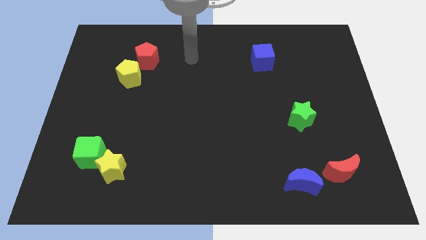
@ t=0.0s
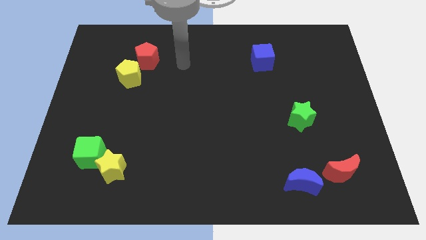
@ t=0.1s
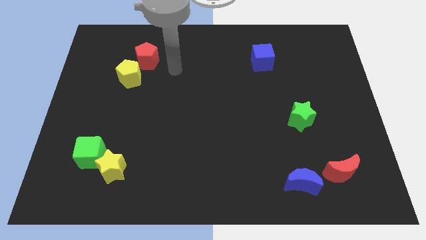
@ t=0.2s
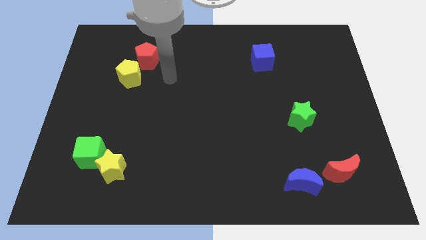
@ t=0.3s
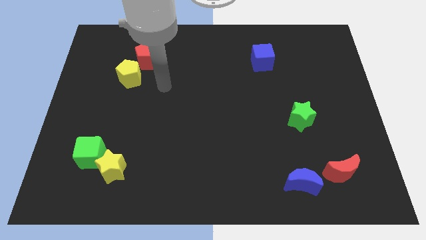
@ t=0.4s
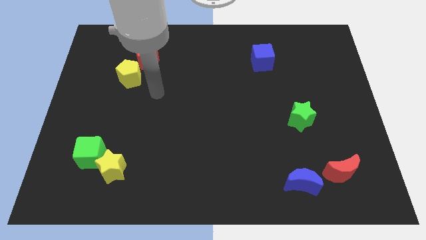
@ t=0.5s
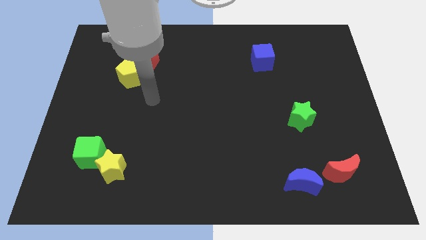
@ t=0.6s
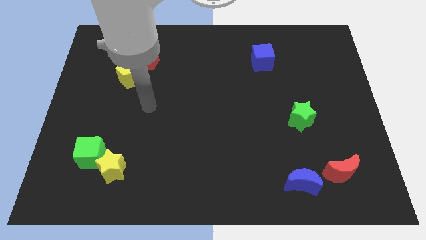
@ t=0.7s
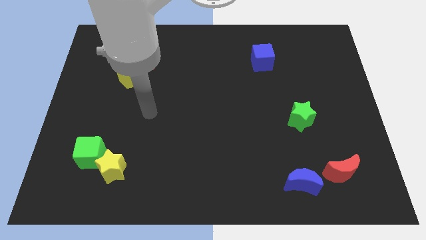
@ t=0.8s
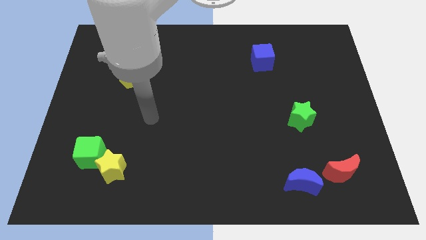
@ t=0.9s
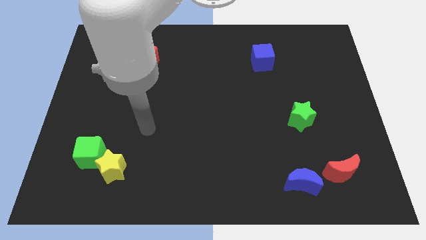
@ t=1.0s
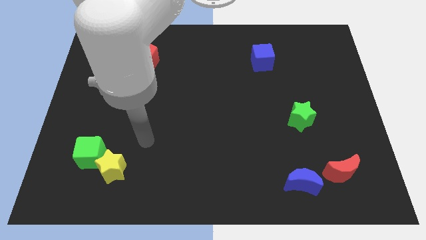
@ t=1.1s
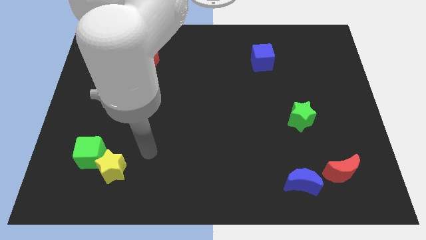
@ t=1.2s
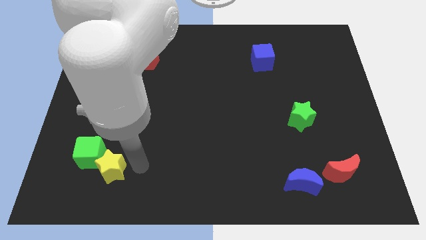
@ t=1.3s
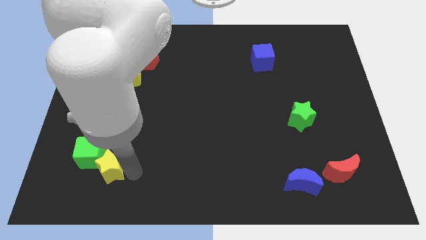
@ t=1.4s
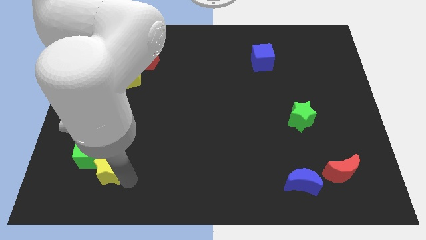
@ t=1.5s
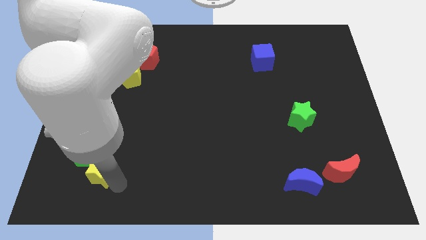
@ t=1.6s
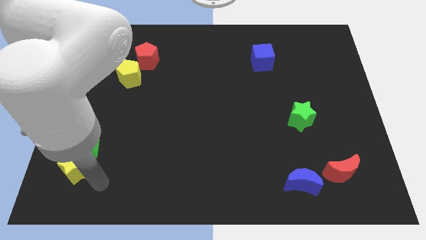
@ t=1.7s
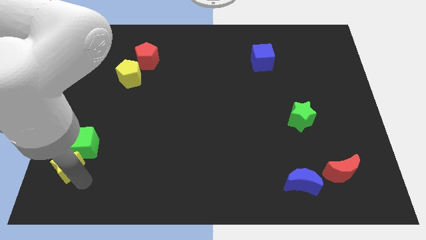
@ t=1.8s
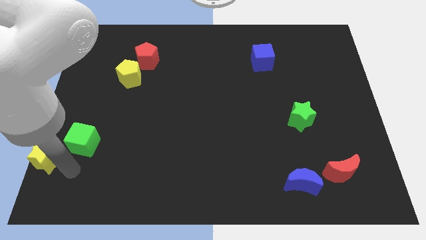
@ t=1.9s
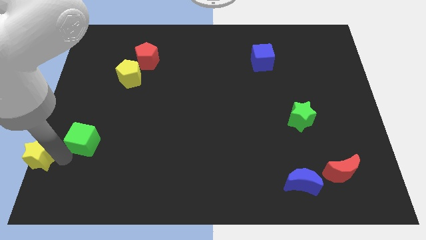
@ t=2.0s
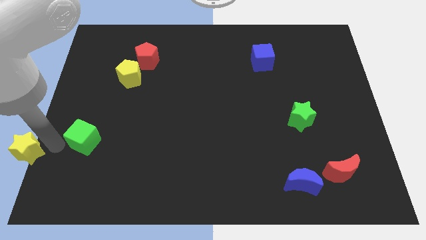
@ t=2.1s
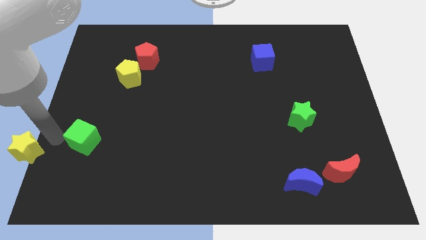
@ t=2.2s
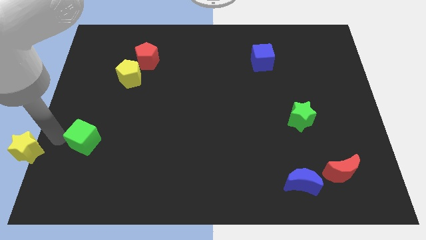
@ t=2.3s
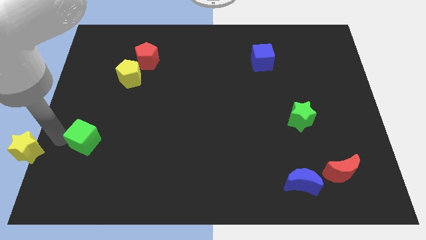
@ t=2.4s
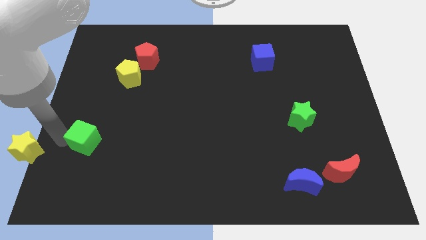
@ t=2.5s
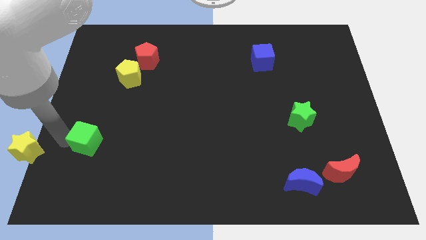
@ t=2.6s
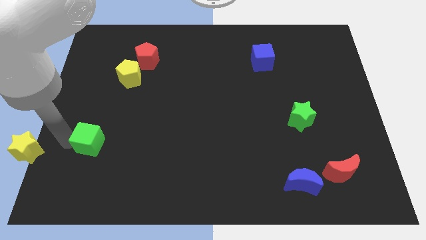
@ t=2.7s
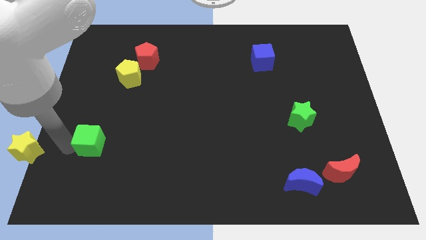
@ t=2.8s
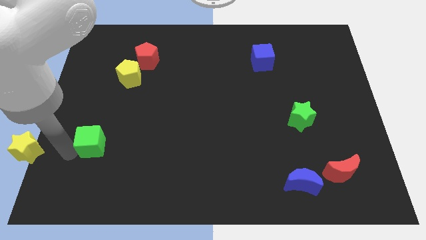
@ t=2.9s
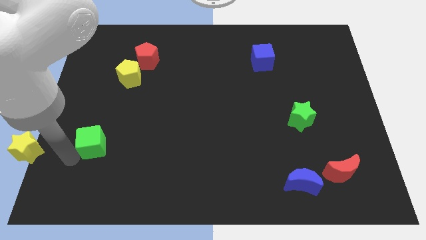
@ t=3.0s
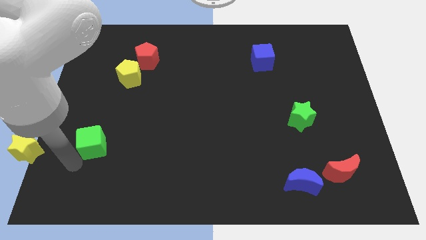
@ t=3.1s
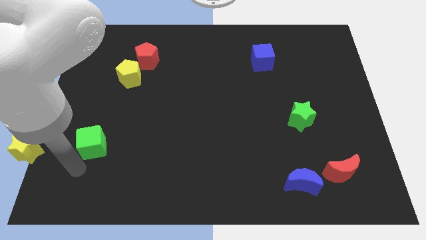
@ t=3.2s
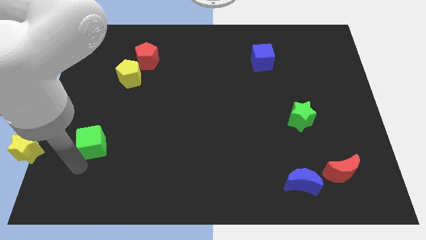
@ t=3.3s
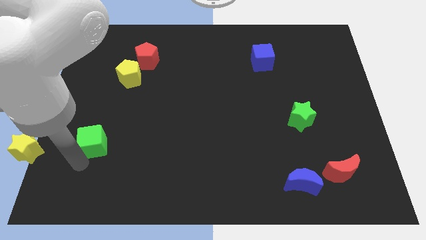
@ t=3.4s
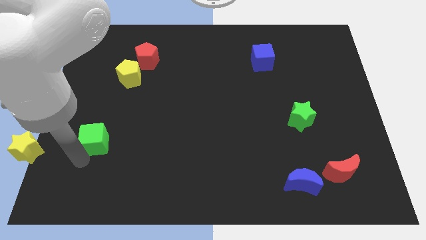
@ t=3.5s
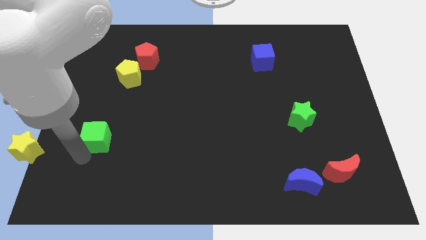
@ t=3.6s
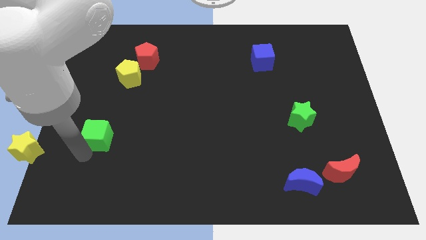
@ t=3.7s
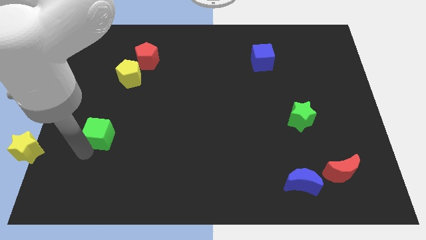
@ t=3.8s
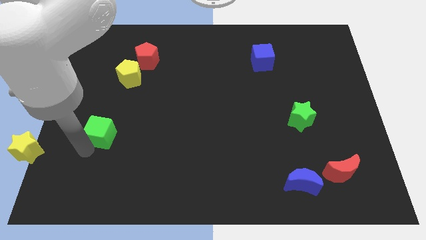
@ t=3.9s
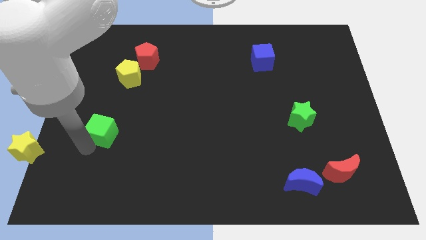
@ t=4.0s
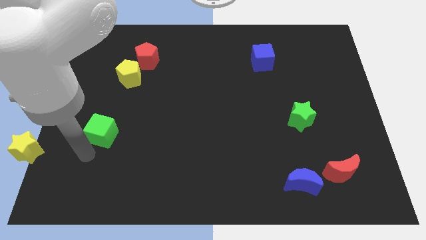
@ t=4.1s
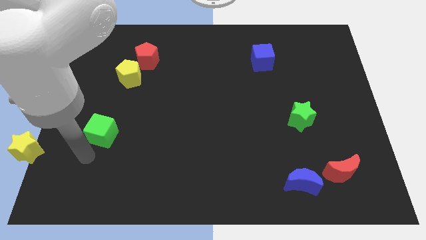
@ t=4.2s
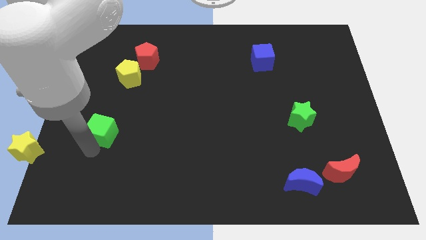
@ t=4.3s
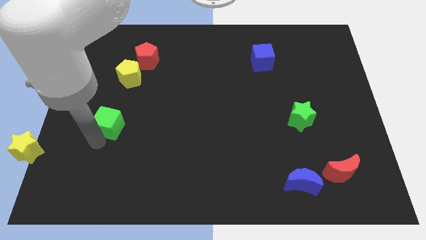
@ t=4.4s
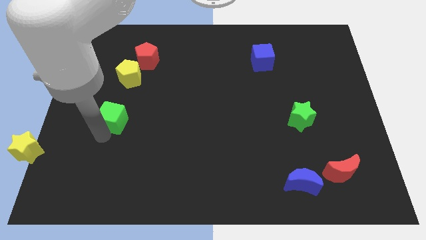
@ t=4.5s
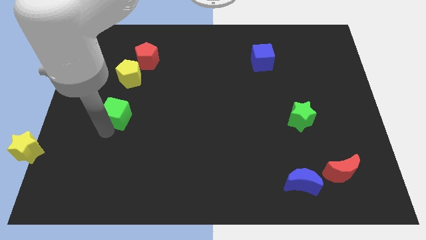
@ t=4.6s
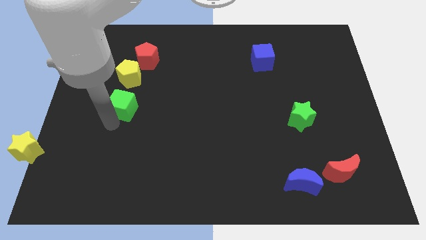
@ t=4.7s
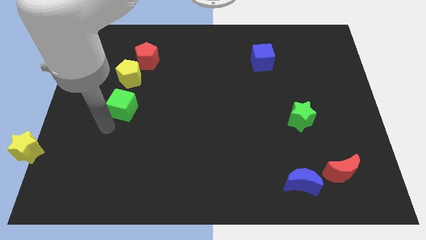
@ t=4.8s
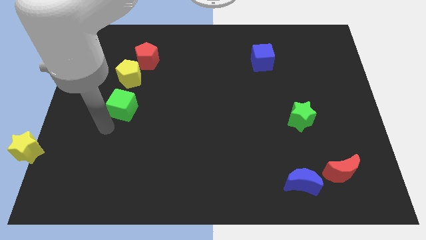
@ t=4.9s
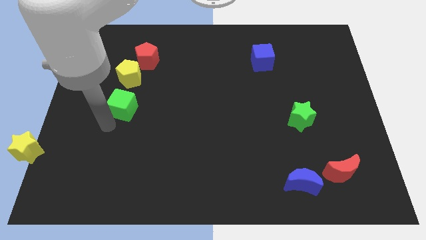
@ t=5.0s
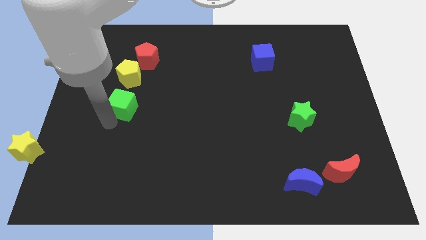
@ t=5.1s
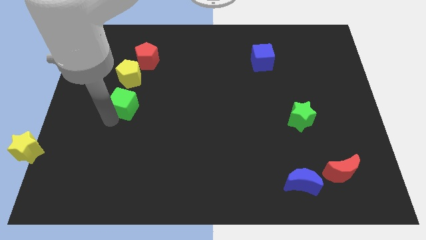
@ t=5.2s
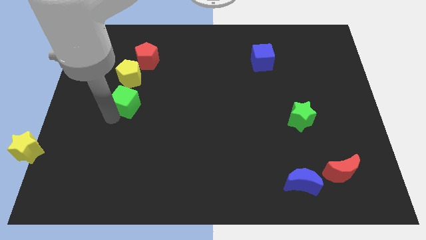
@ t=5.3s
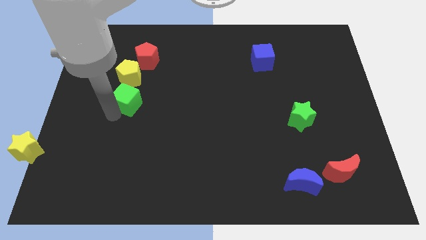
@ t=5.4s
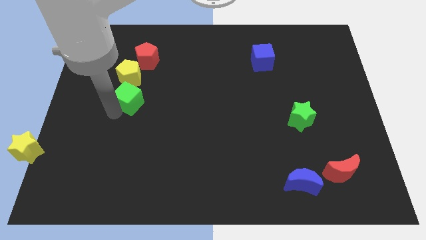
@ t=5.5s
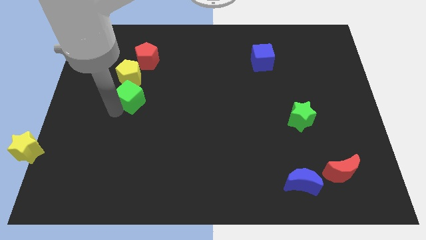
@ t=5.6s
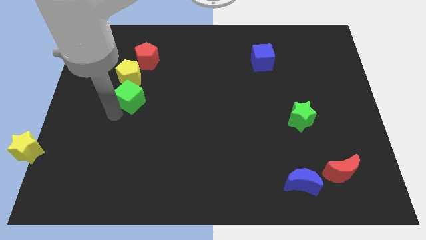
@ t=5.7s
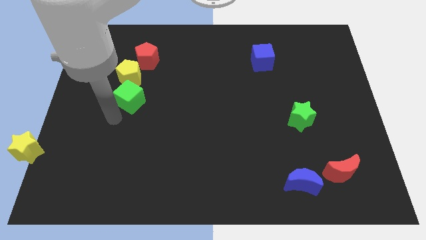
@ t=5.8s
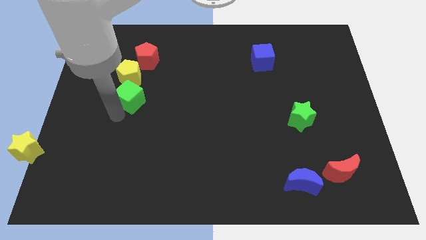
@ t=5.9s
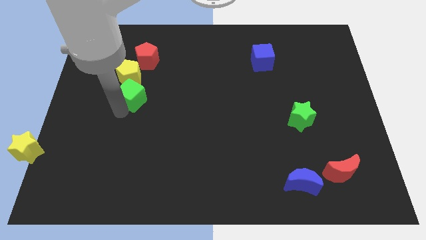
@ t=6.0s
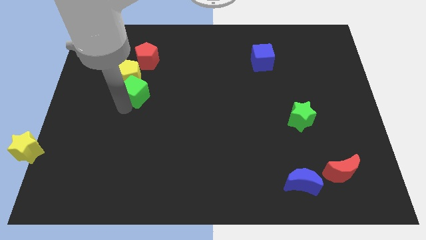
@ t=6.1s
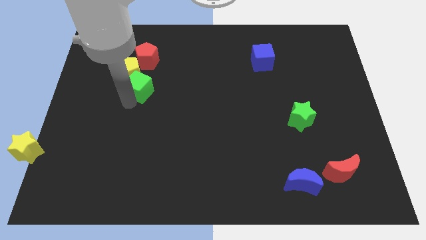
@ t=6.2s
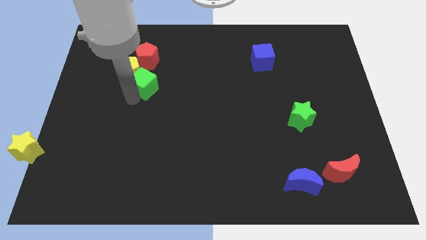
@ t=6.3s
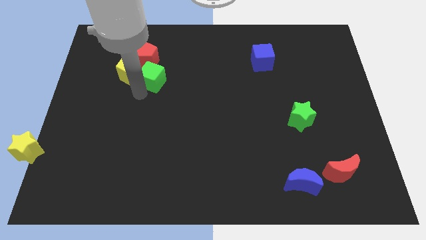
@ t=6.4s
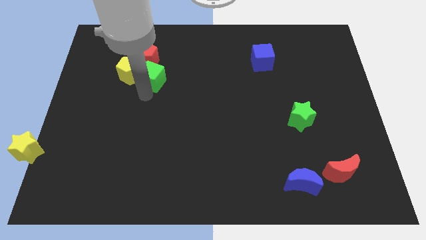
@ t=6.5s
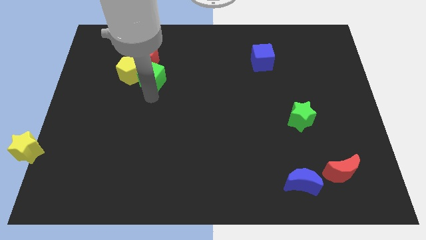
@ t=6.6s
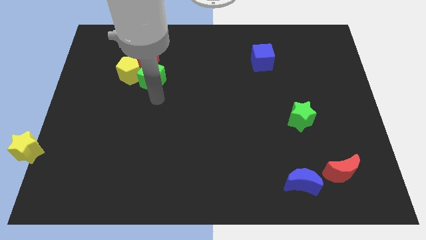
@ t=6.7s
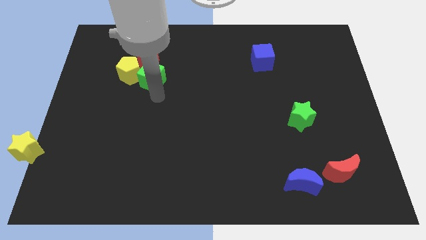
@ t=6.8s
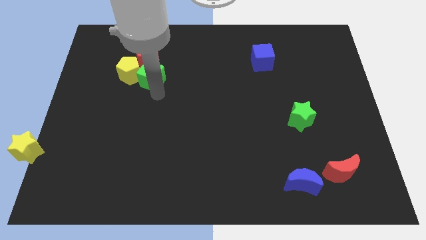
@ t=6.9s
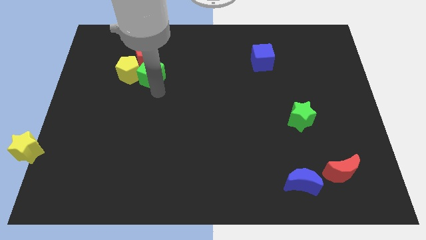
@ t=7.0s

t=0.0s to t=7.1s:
slide the green cube next to the red pentagon
